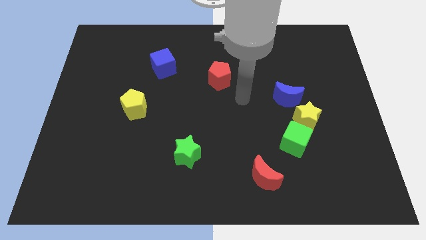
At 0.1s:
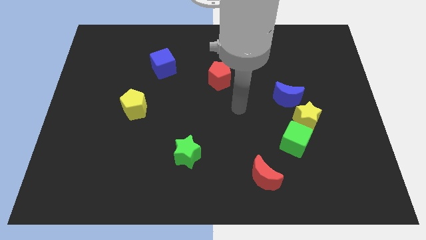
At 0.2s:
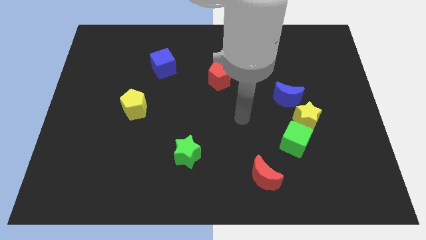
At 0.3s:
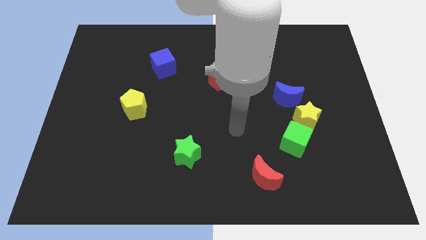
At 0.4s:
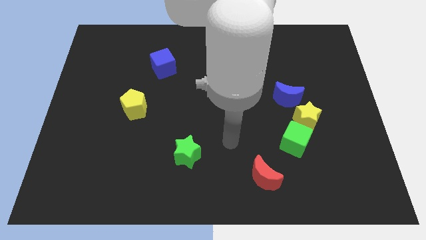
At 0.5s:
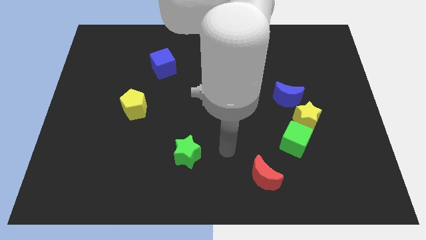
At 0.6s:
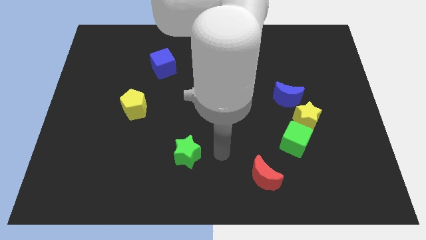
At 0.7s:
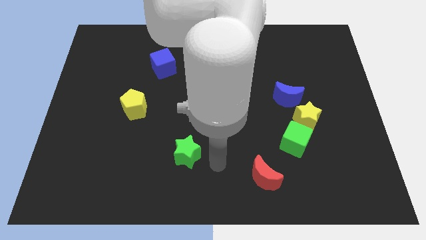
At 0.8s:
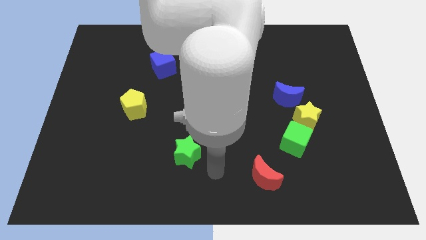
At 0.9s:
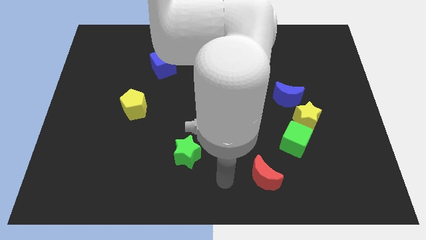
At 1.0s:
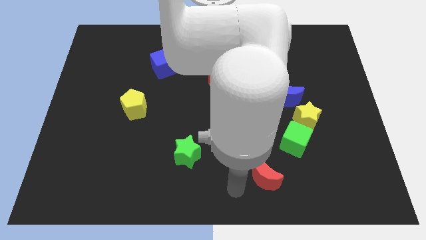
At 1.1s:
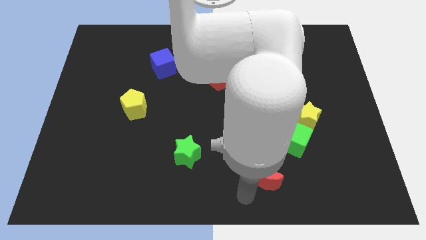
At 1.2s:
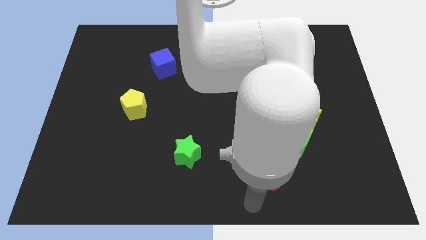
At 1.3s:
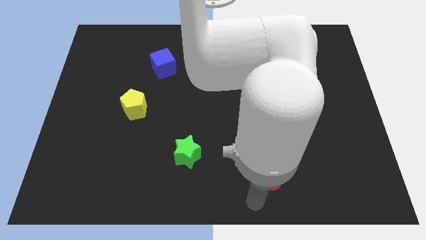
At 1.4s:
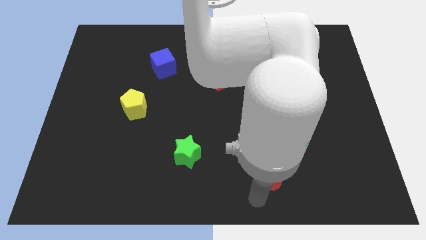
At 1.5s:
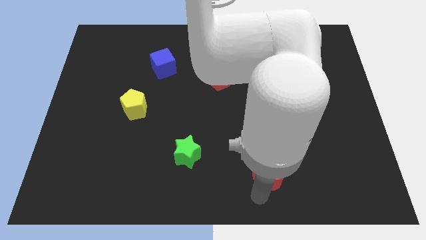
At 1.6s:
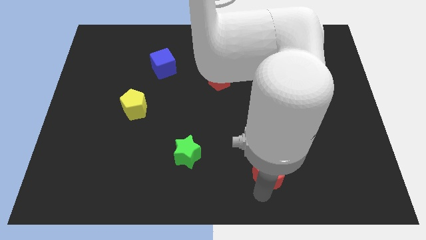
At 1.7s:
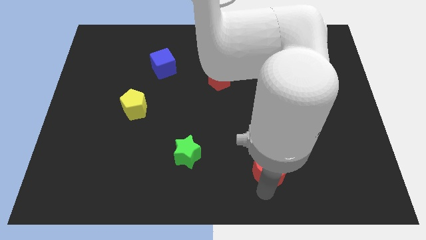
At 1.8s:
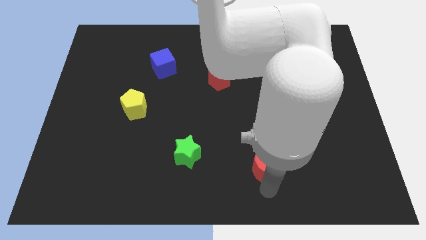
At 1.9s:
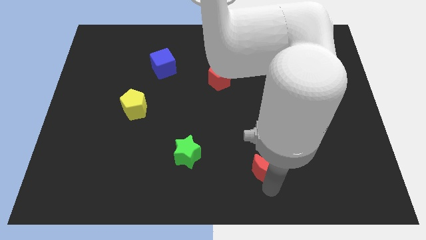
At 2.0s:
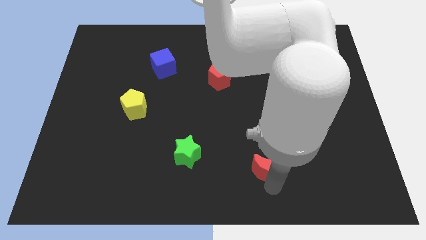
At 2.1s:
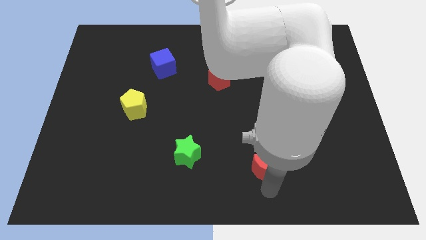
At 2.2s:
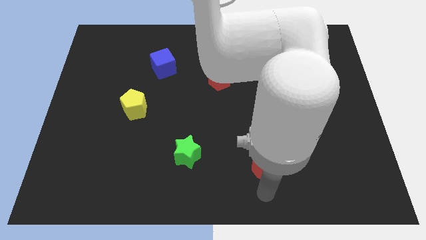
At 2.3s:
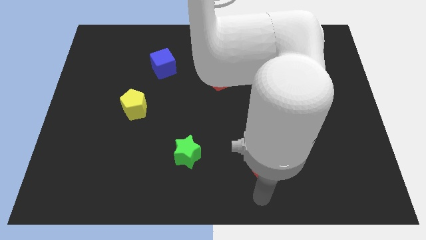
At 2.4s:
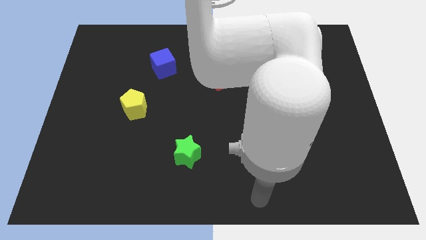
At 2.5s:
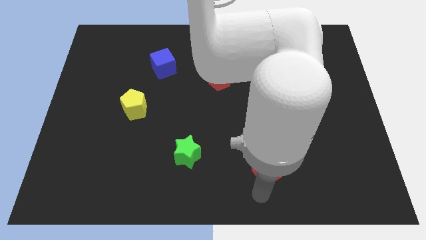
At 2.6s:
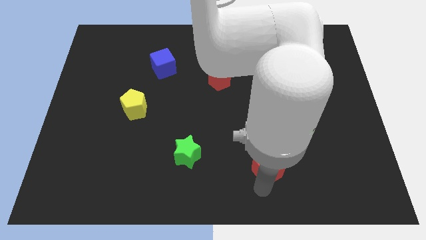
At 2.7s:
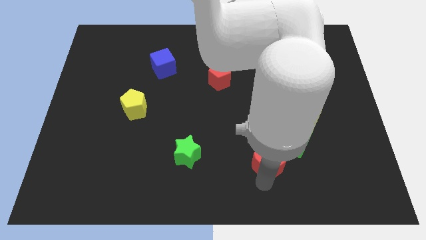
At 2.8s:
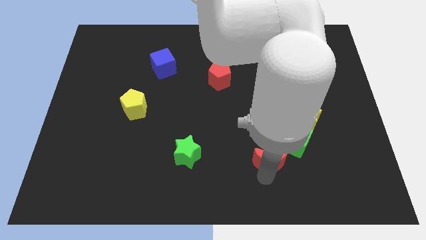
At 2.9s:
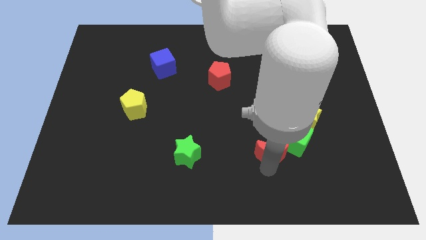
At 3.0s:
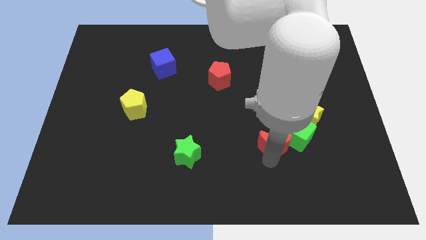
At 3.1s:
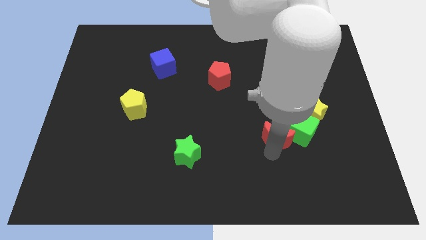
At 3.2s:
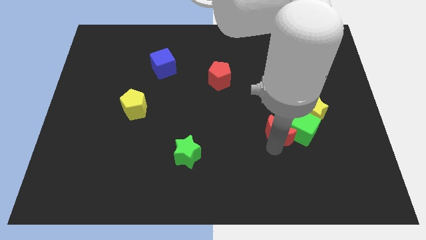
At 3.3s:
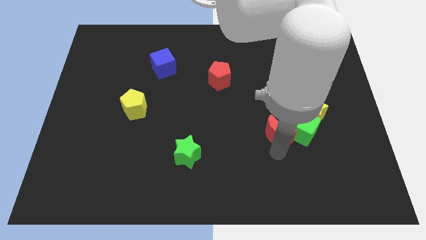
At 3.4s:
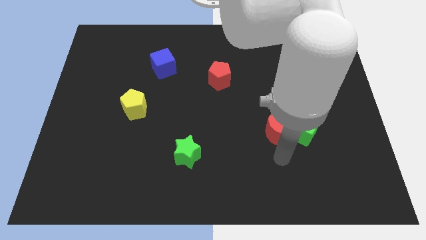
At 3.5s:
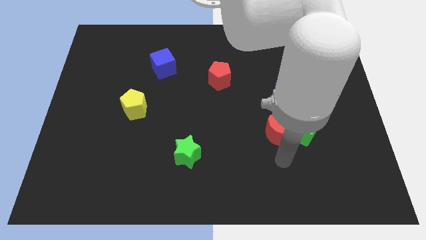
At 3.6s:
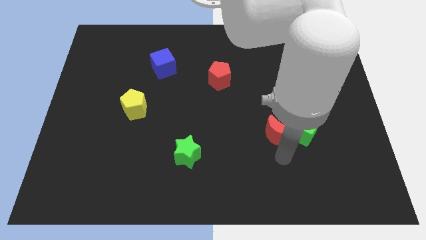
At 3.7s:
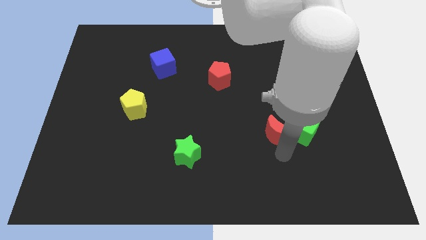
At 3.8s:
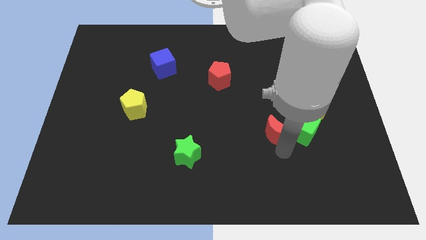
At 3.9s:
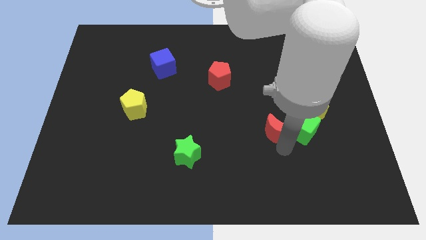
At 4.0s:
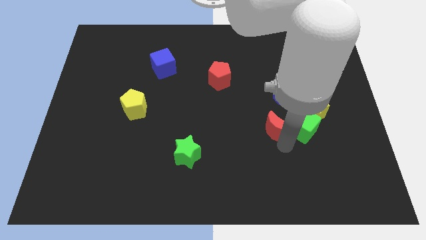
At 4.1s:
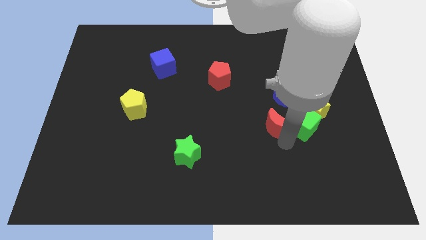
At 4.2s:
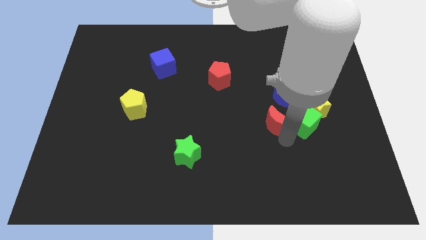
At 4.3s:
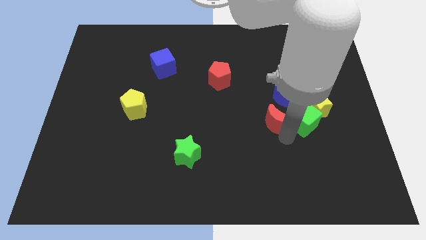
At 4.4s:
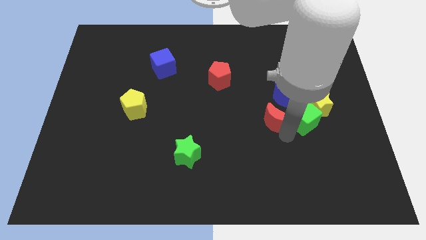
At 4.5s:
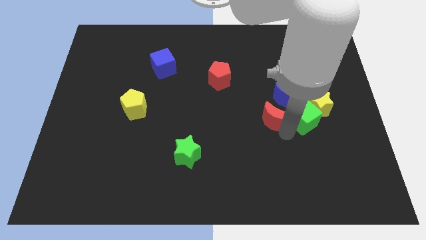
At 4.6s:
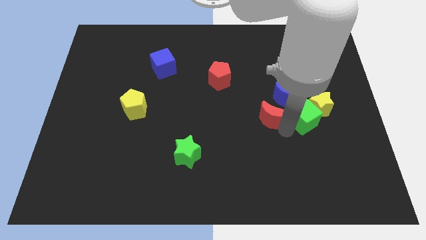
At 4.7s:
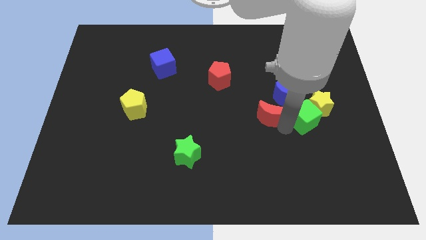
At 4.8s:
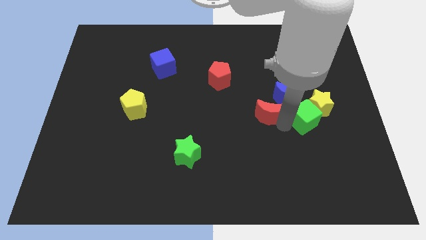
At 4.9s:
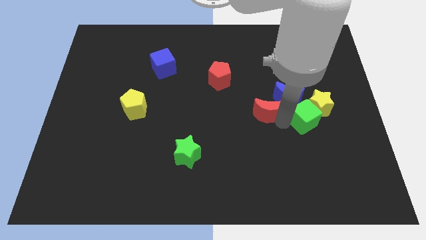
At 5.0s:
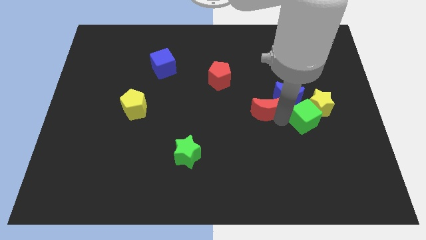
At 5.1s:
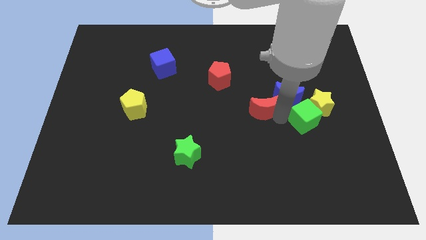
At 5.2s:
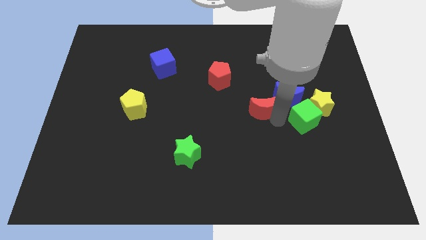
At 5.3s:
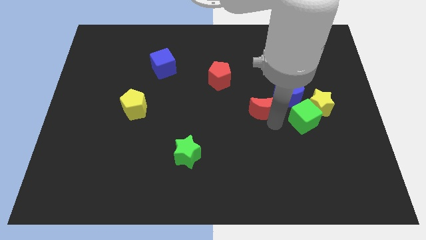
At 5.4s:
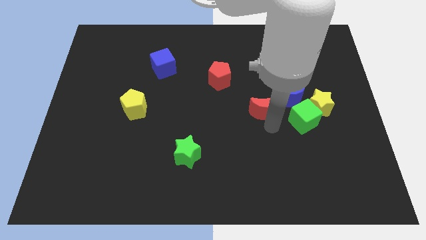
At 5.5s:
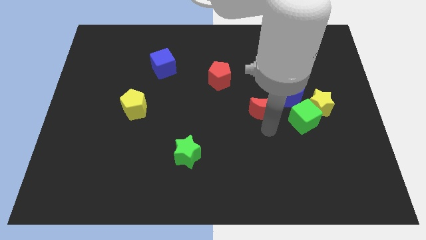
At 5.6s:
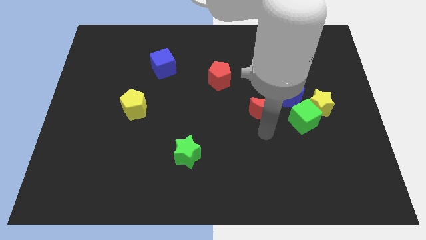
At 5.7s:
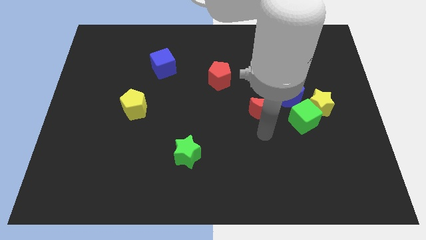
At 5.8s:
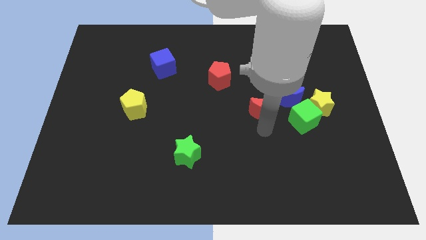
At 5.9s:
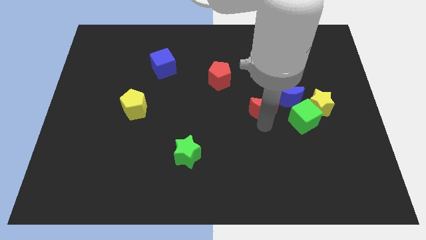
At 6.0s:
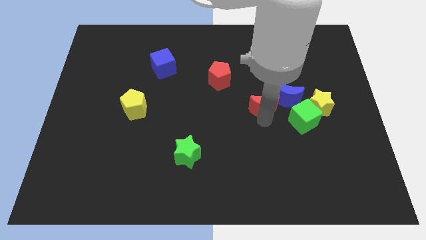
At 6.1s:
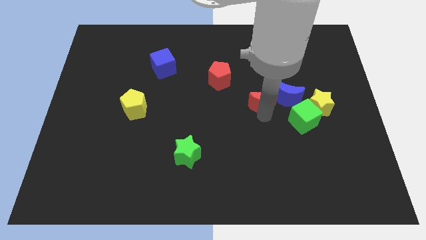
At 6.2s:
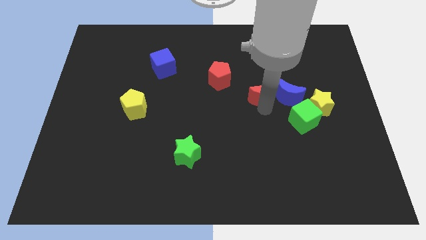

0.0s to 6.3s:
move the red moon up

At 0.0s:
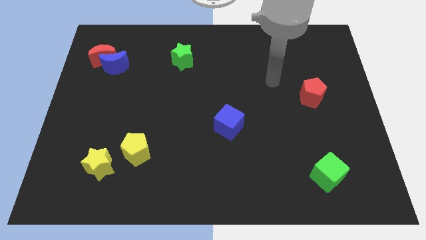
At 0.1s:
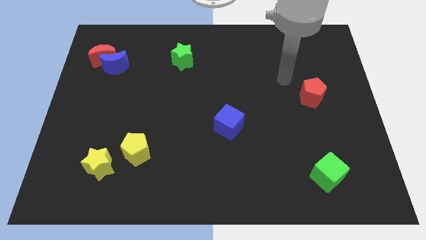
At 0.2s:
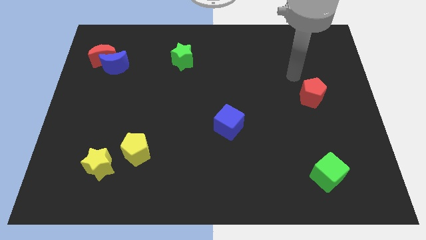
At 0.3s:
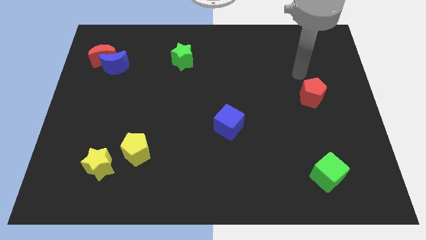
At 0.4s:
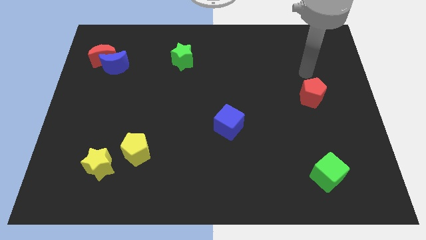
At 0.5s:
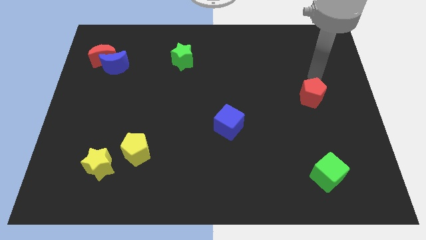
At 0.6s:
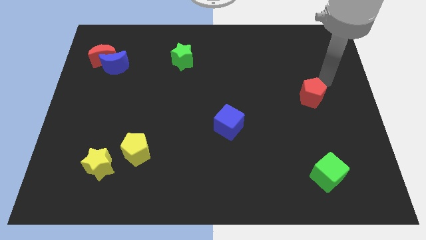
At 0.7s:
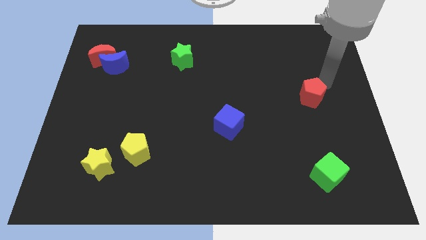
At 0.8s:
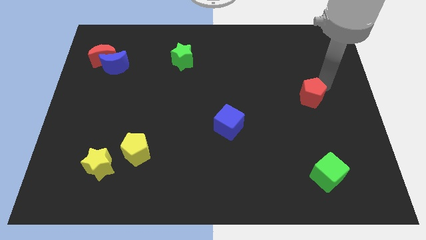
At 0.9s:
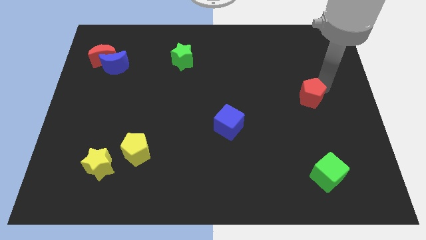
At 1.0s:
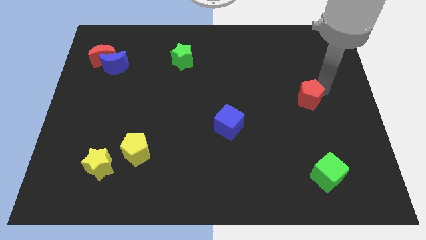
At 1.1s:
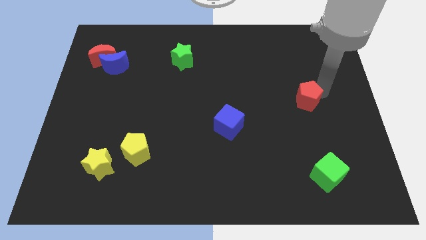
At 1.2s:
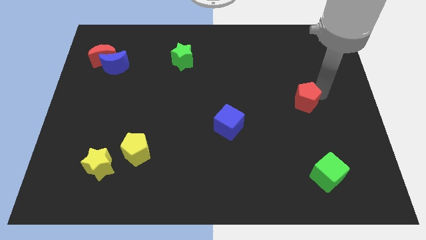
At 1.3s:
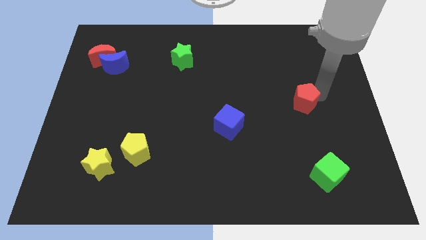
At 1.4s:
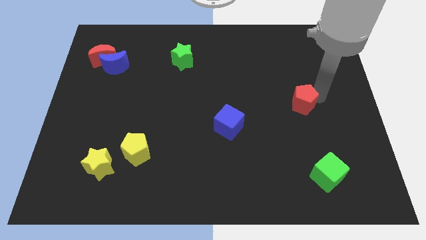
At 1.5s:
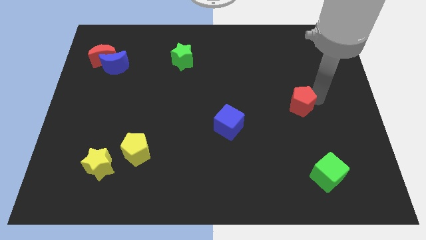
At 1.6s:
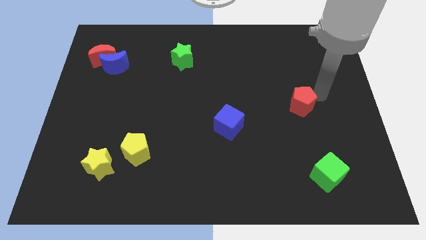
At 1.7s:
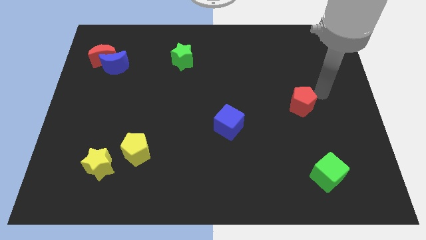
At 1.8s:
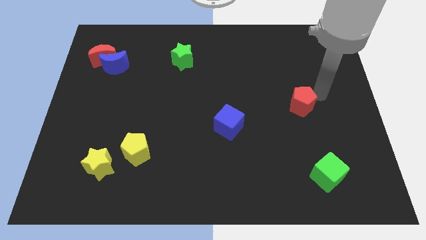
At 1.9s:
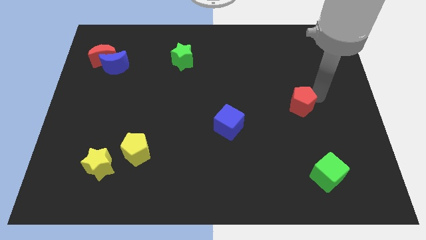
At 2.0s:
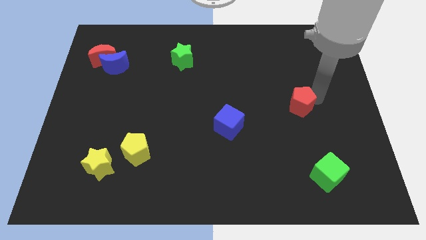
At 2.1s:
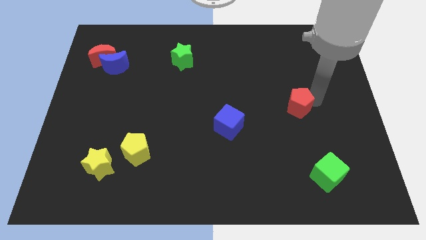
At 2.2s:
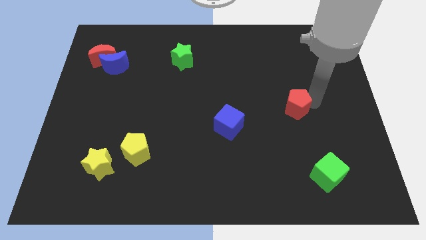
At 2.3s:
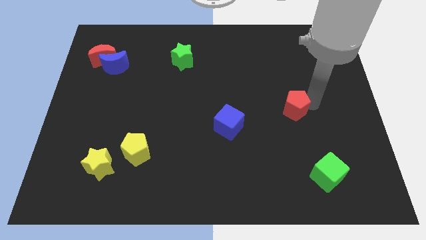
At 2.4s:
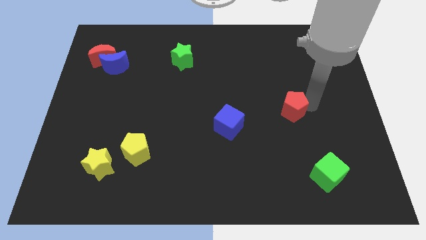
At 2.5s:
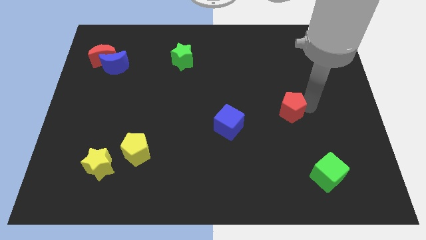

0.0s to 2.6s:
slide the red pentagon diagonally down and left a little
